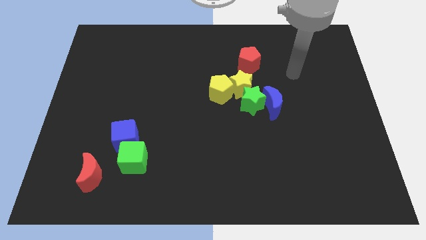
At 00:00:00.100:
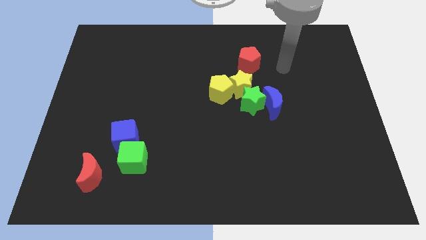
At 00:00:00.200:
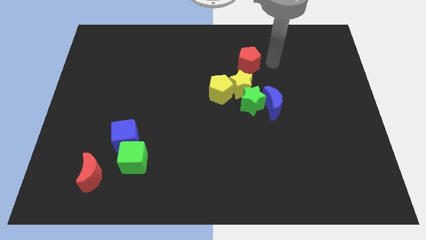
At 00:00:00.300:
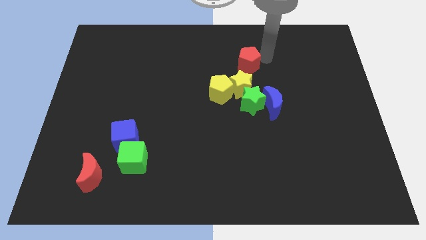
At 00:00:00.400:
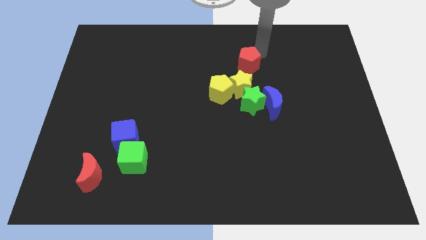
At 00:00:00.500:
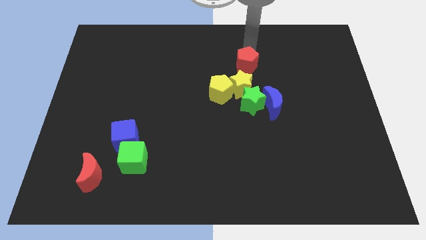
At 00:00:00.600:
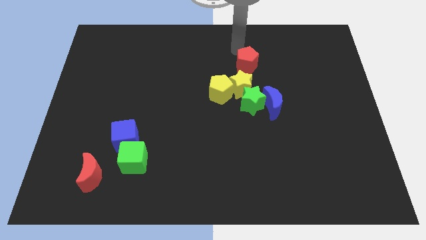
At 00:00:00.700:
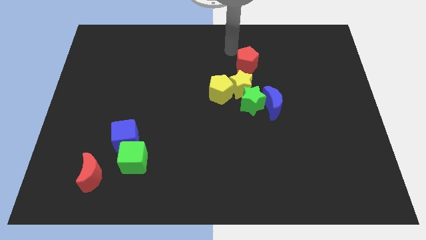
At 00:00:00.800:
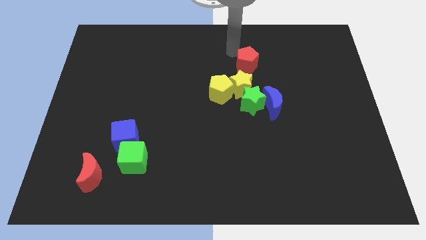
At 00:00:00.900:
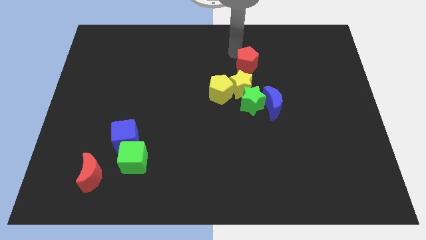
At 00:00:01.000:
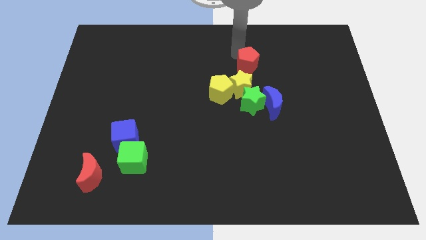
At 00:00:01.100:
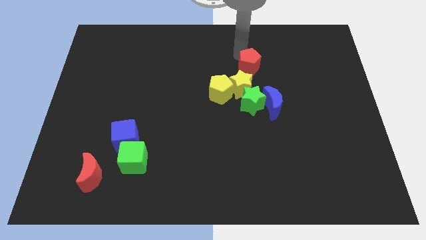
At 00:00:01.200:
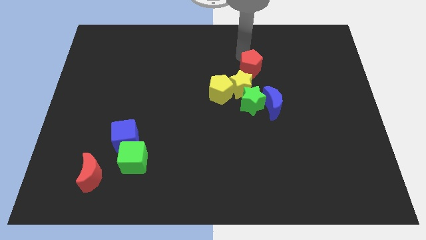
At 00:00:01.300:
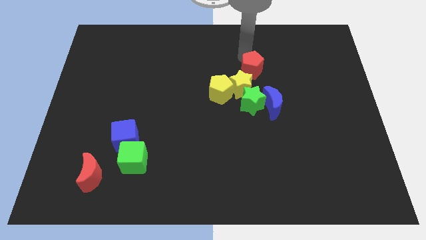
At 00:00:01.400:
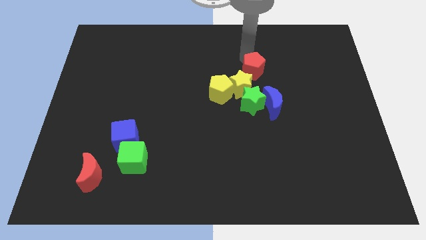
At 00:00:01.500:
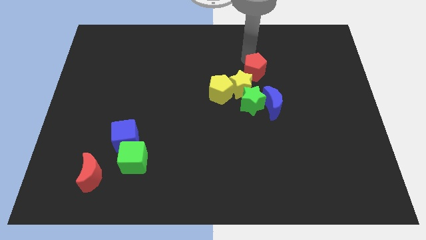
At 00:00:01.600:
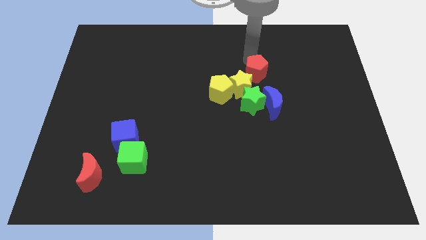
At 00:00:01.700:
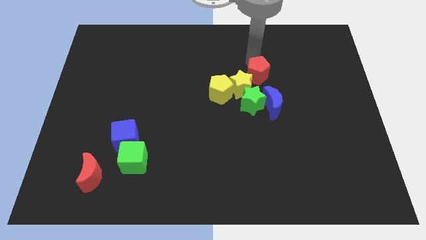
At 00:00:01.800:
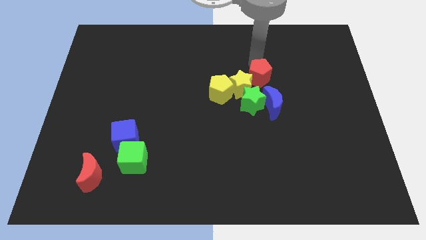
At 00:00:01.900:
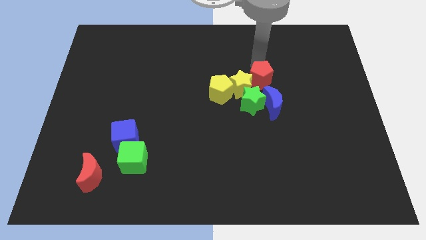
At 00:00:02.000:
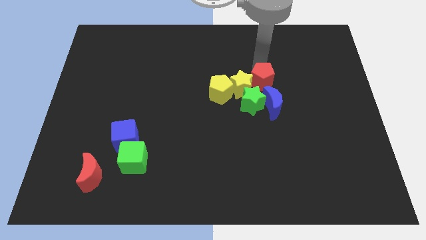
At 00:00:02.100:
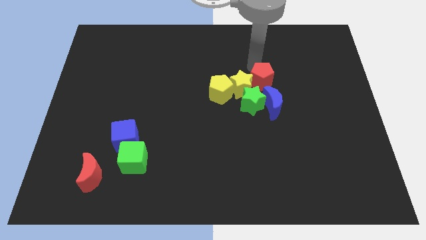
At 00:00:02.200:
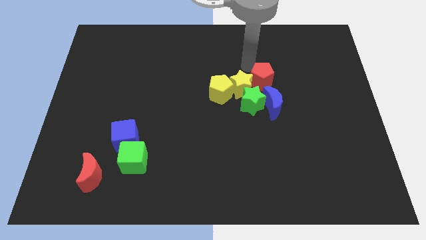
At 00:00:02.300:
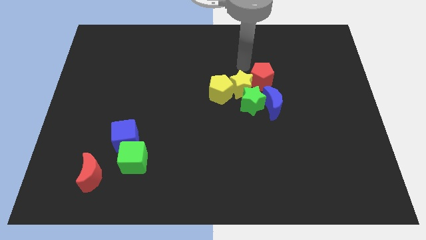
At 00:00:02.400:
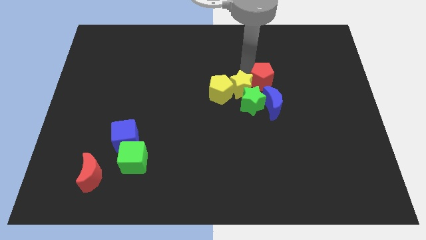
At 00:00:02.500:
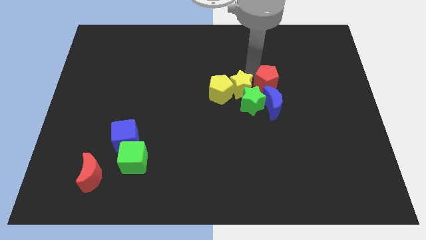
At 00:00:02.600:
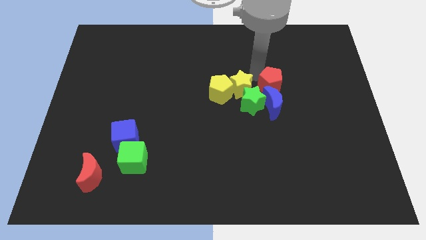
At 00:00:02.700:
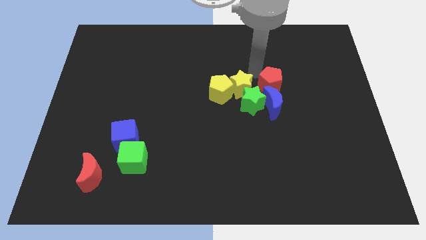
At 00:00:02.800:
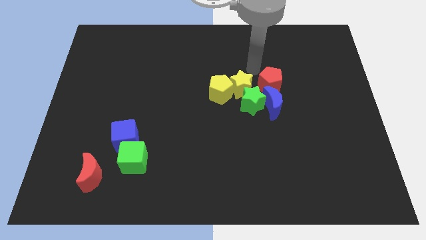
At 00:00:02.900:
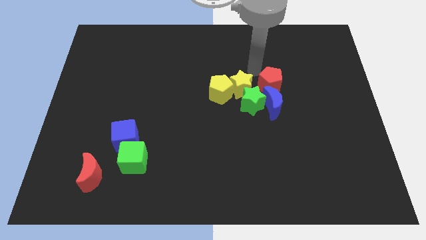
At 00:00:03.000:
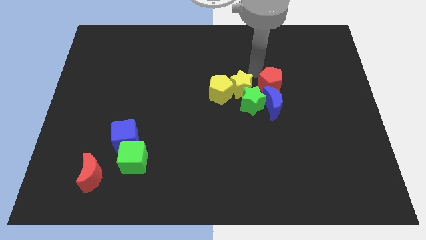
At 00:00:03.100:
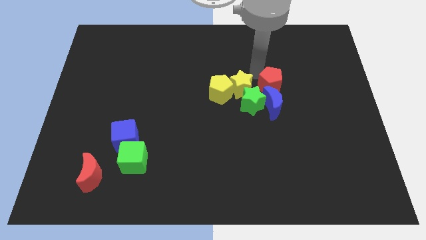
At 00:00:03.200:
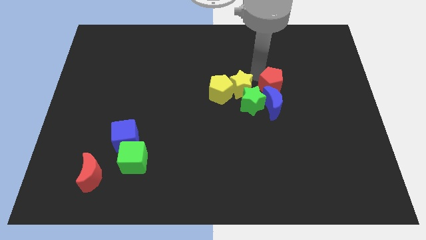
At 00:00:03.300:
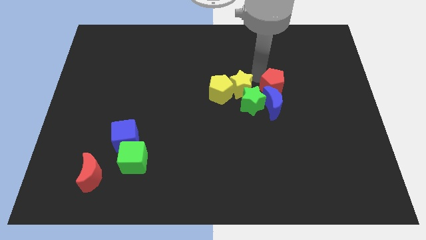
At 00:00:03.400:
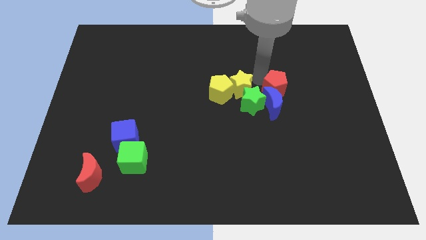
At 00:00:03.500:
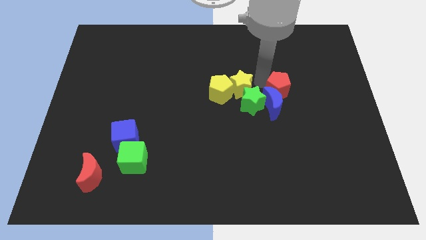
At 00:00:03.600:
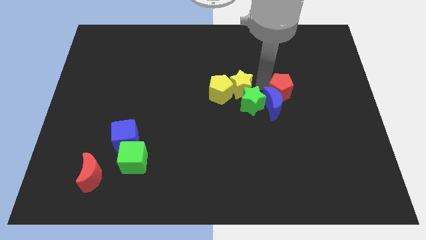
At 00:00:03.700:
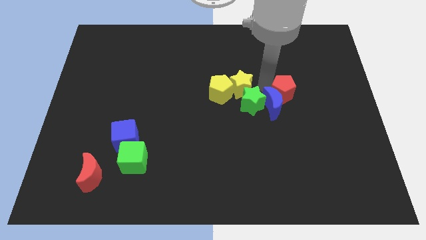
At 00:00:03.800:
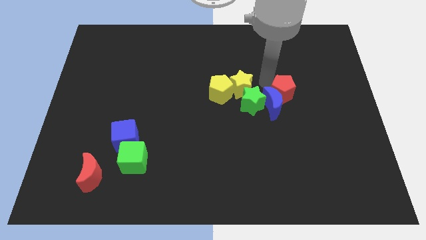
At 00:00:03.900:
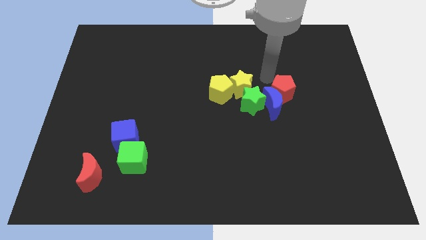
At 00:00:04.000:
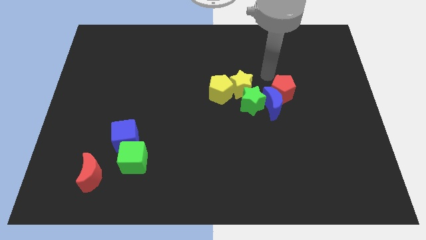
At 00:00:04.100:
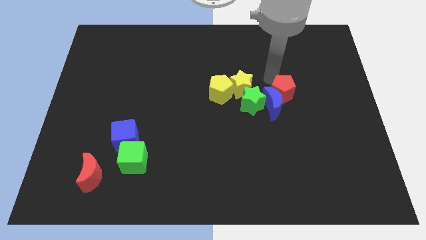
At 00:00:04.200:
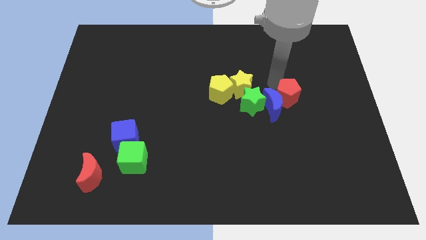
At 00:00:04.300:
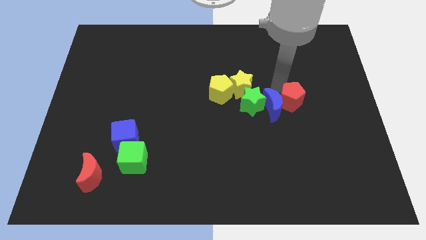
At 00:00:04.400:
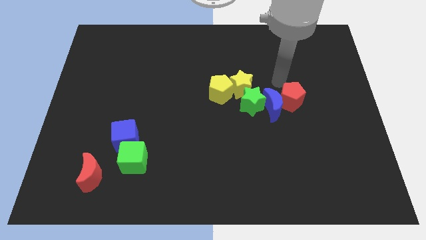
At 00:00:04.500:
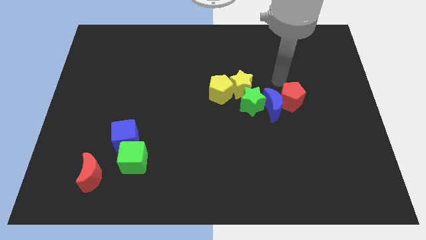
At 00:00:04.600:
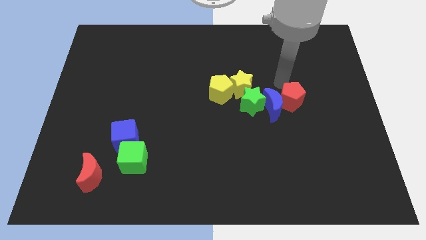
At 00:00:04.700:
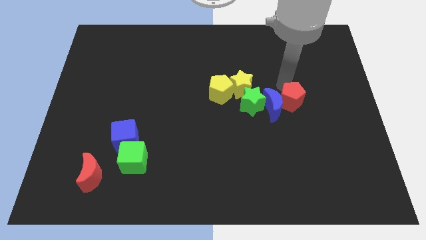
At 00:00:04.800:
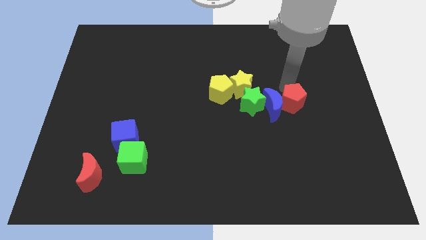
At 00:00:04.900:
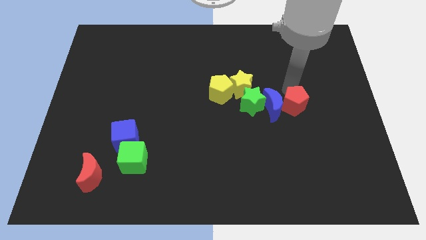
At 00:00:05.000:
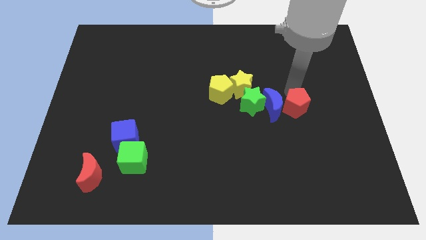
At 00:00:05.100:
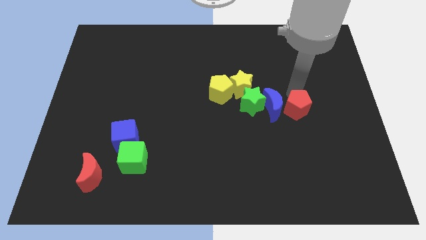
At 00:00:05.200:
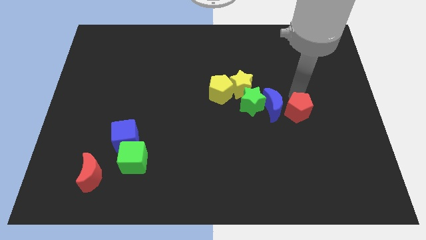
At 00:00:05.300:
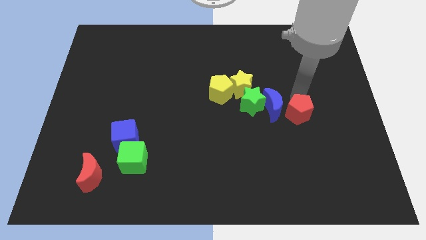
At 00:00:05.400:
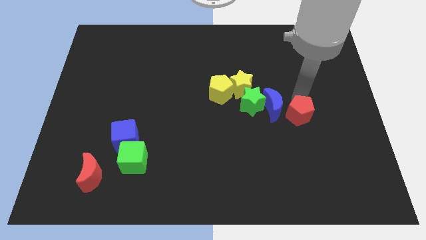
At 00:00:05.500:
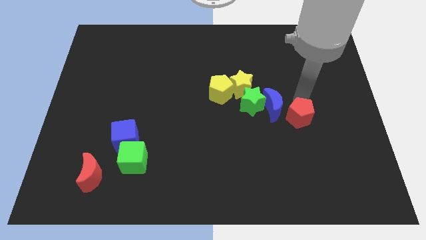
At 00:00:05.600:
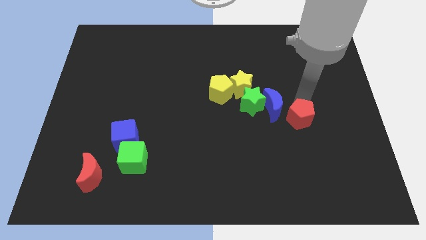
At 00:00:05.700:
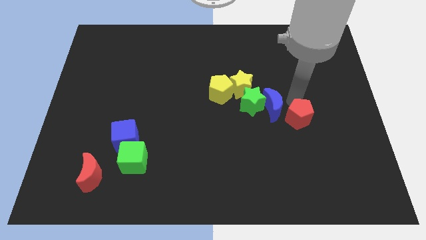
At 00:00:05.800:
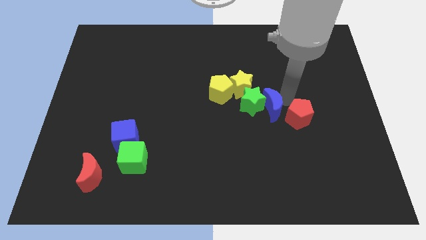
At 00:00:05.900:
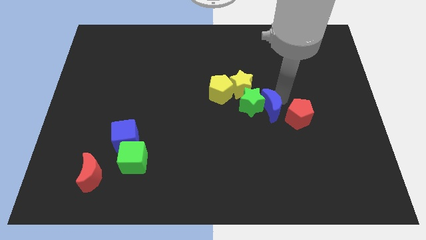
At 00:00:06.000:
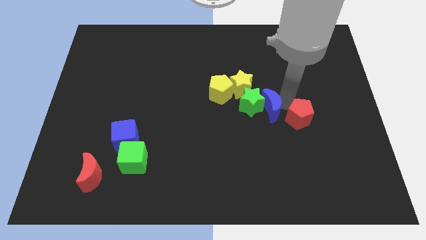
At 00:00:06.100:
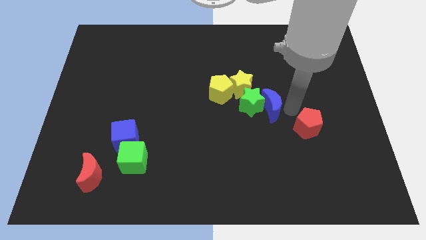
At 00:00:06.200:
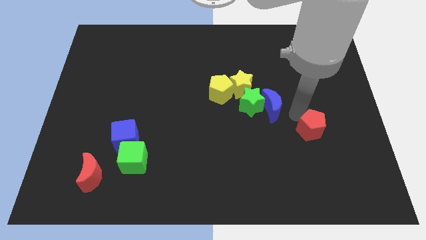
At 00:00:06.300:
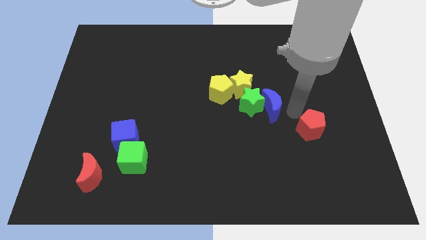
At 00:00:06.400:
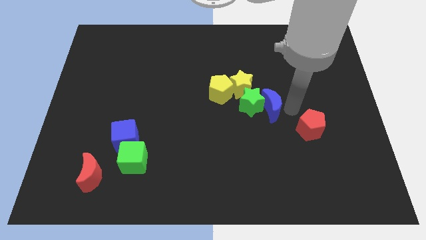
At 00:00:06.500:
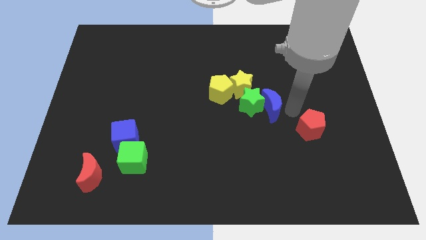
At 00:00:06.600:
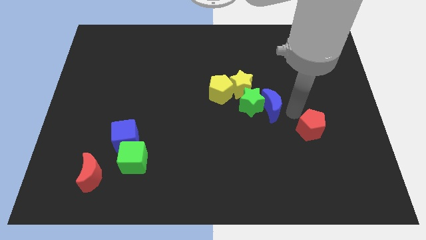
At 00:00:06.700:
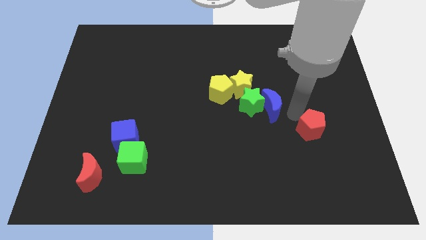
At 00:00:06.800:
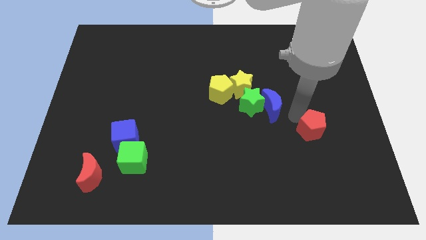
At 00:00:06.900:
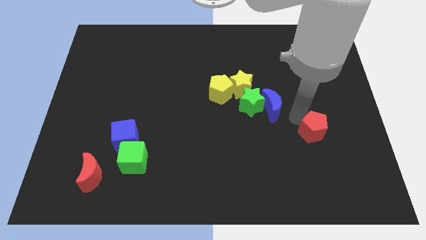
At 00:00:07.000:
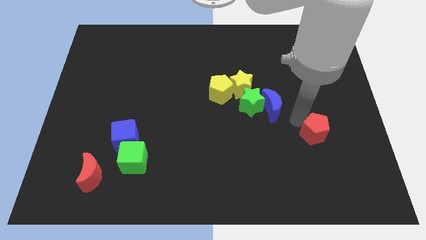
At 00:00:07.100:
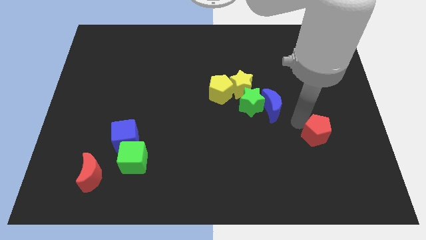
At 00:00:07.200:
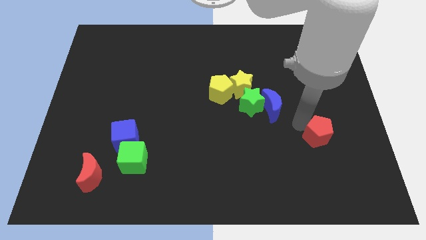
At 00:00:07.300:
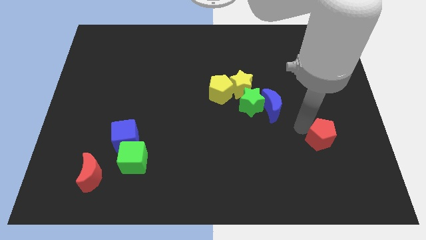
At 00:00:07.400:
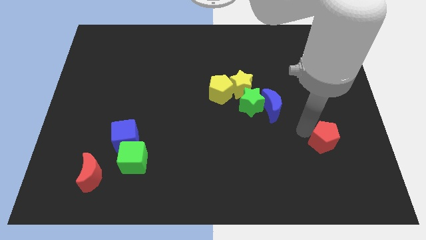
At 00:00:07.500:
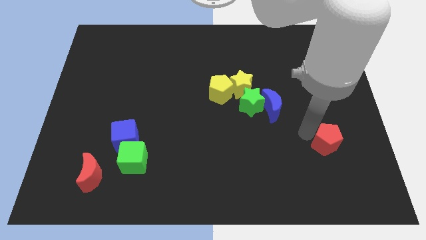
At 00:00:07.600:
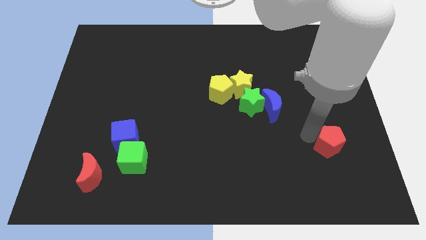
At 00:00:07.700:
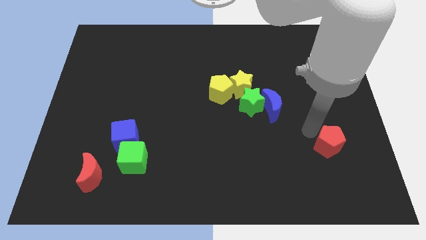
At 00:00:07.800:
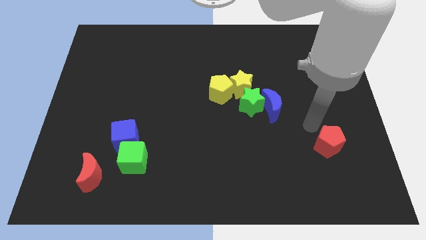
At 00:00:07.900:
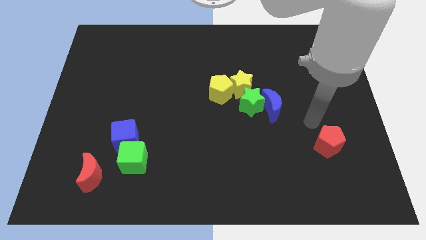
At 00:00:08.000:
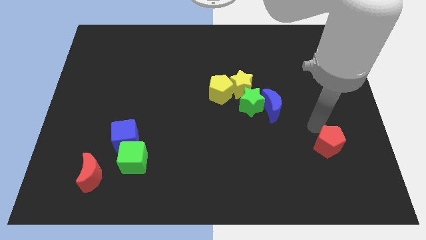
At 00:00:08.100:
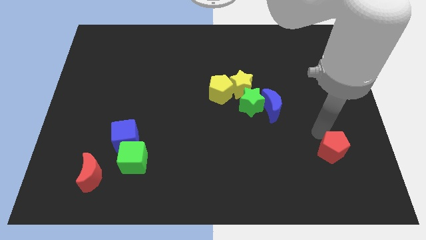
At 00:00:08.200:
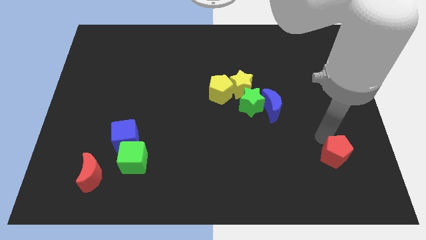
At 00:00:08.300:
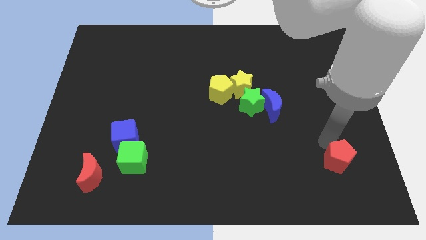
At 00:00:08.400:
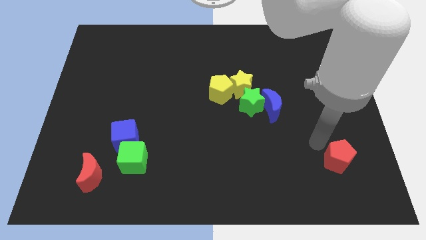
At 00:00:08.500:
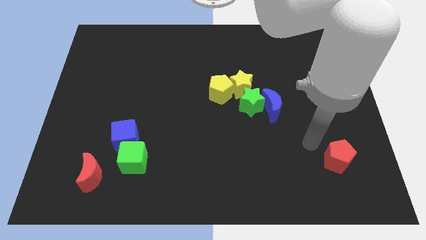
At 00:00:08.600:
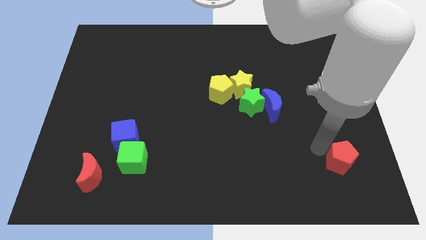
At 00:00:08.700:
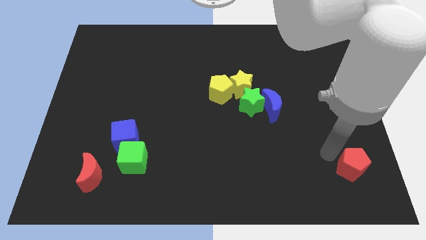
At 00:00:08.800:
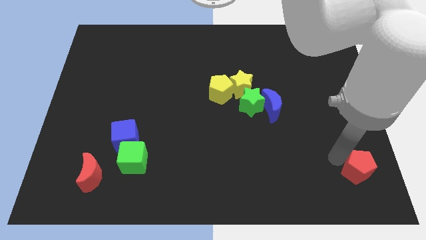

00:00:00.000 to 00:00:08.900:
move the red pentagon to the lower right corner
